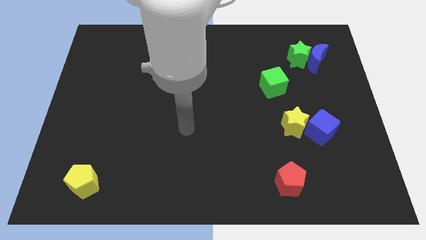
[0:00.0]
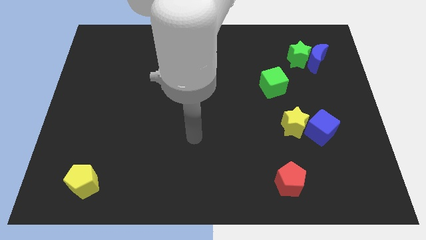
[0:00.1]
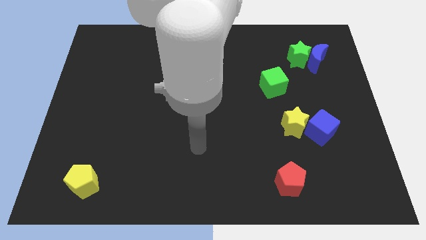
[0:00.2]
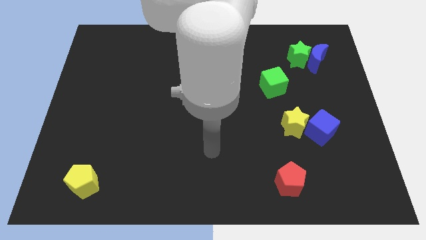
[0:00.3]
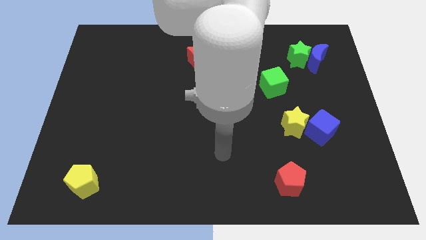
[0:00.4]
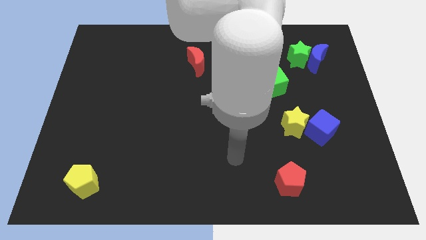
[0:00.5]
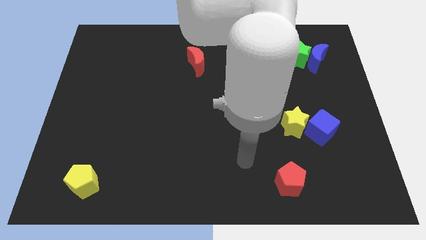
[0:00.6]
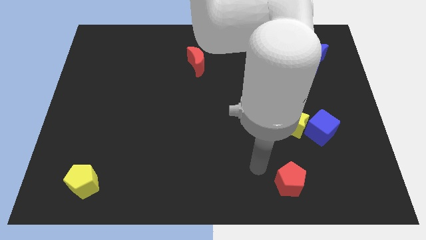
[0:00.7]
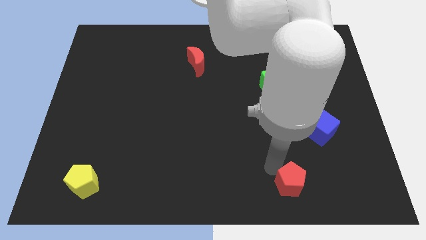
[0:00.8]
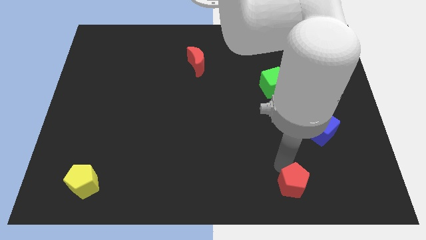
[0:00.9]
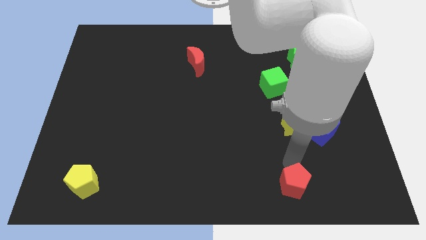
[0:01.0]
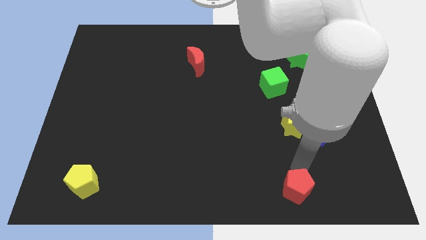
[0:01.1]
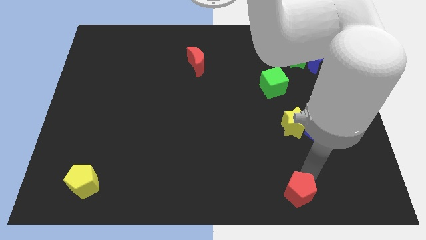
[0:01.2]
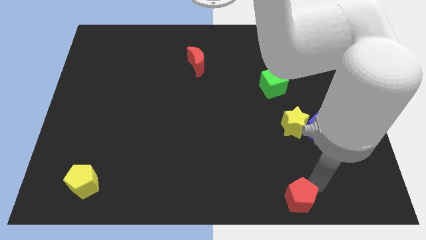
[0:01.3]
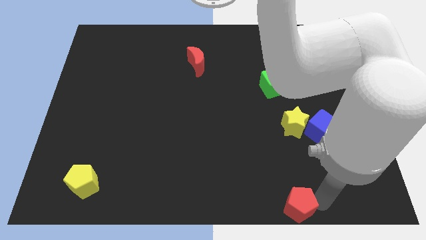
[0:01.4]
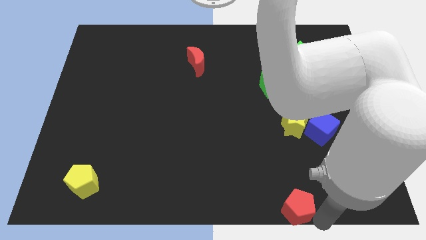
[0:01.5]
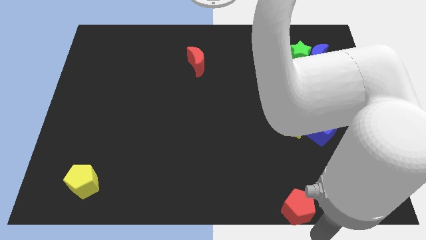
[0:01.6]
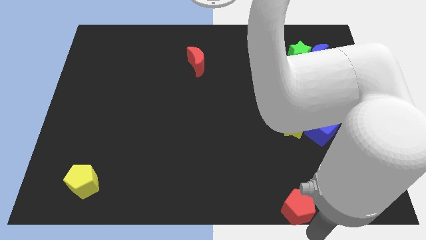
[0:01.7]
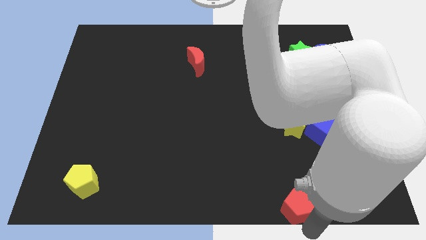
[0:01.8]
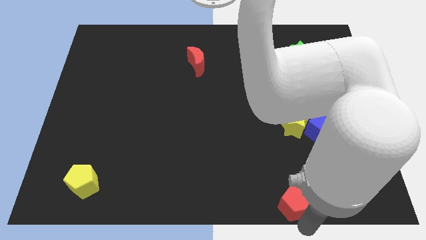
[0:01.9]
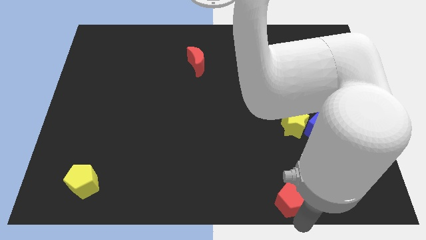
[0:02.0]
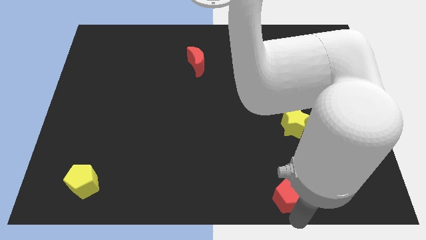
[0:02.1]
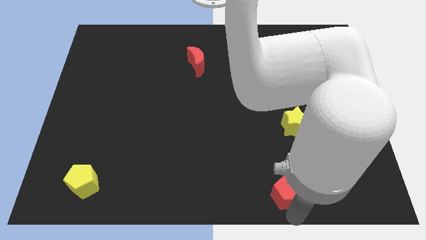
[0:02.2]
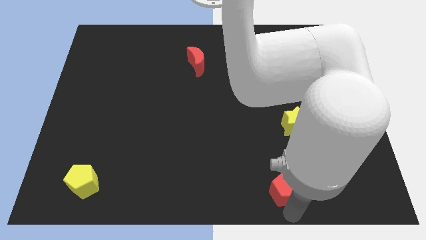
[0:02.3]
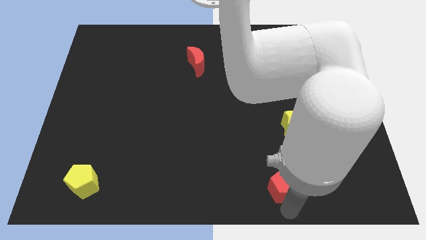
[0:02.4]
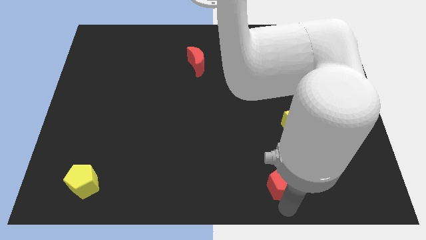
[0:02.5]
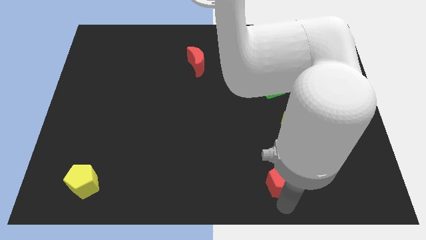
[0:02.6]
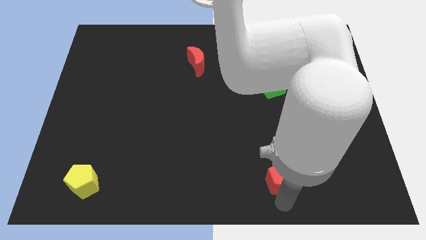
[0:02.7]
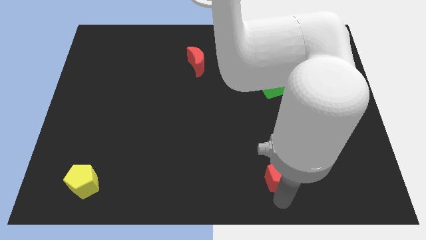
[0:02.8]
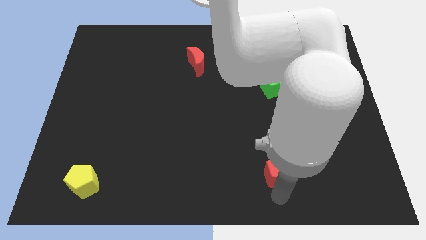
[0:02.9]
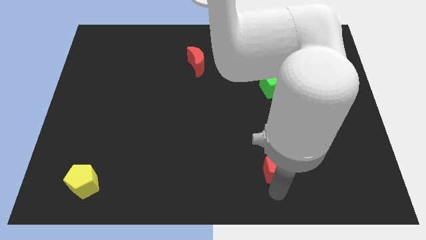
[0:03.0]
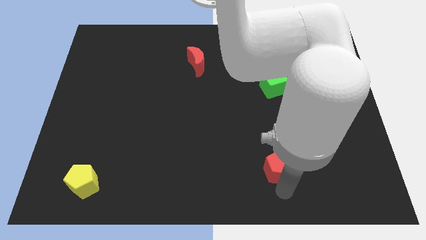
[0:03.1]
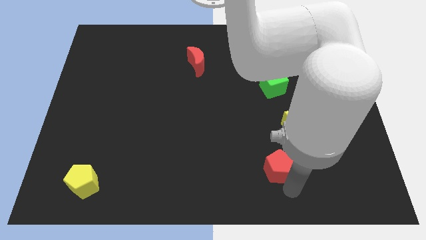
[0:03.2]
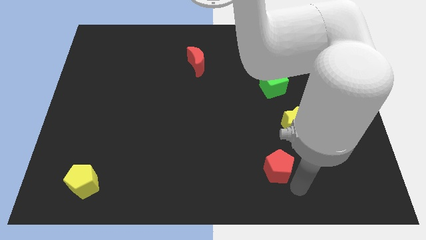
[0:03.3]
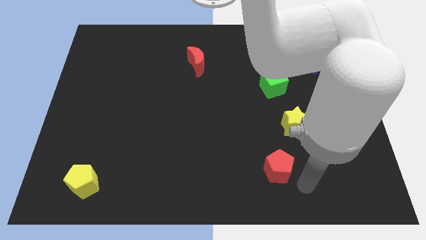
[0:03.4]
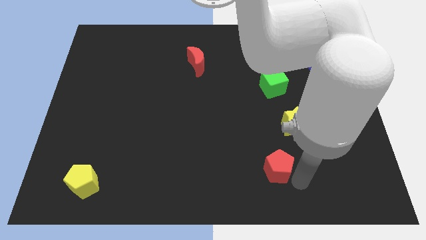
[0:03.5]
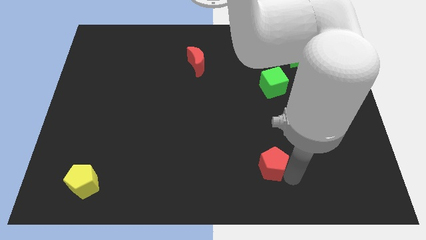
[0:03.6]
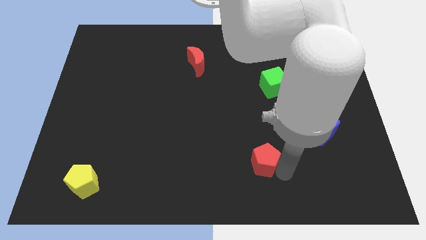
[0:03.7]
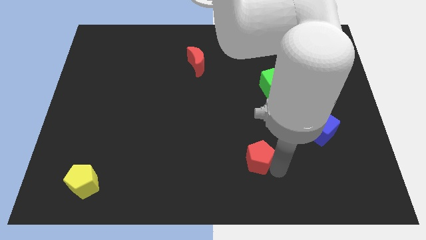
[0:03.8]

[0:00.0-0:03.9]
slide the red pentagon a bit upwards and then to the left

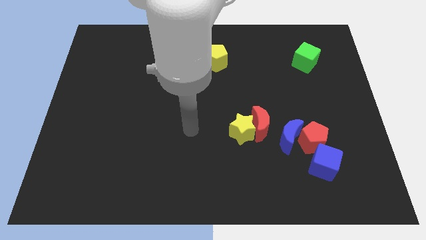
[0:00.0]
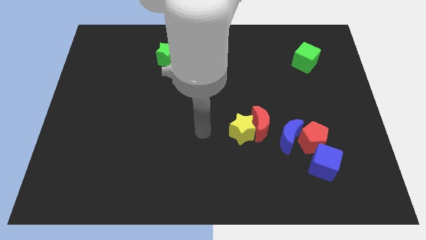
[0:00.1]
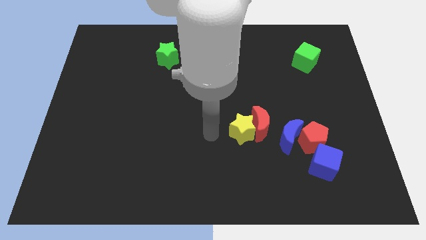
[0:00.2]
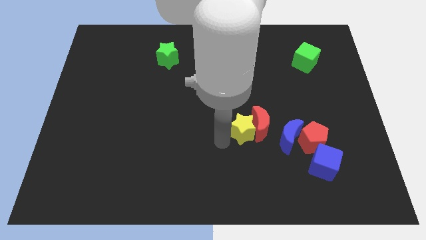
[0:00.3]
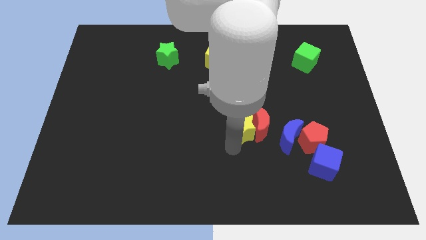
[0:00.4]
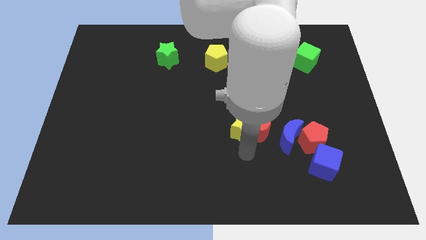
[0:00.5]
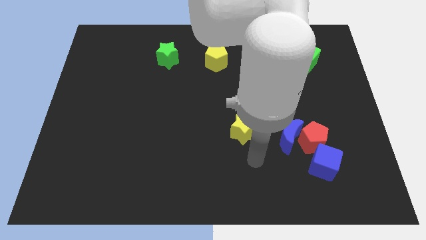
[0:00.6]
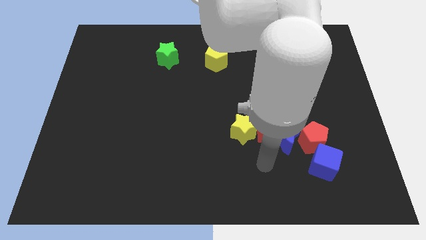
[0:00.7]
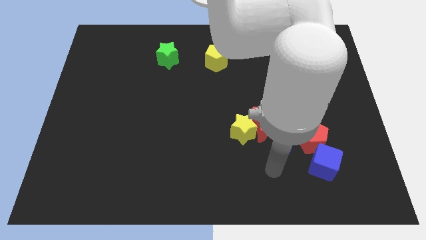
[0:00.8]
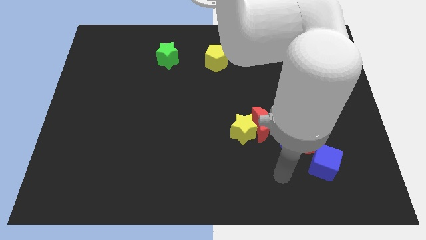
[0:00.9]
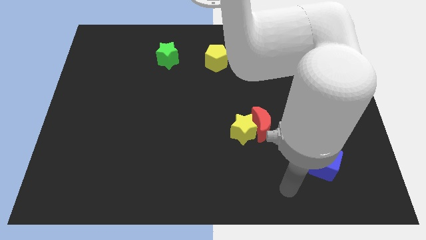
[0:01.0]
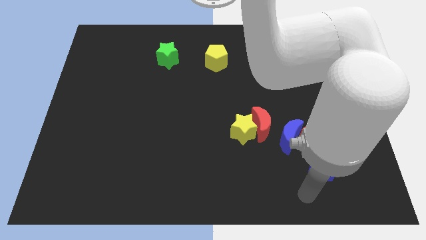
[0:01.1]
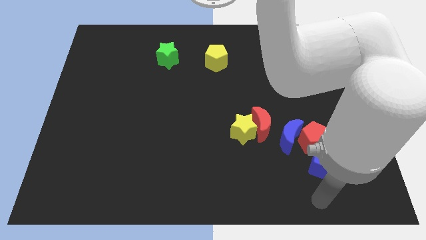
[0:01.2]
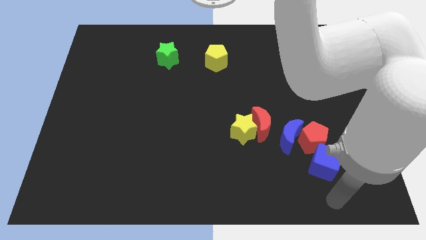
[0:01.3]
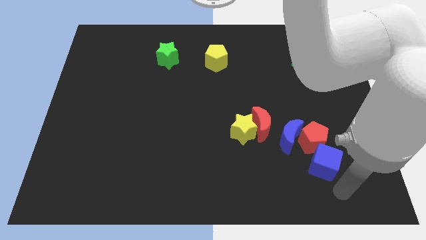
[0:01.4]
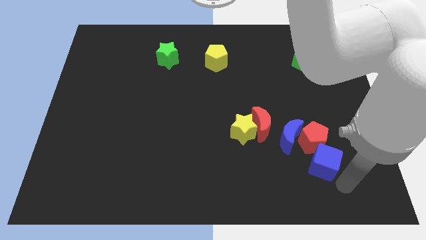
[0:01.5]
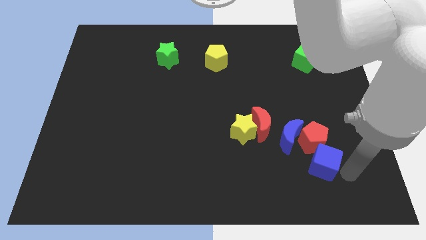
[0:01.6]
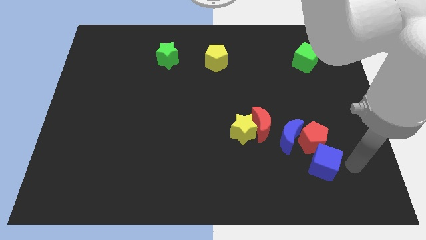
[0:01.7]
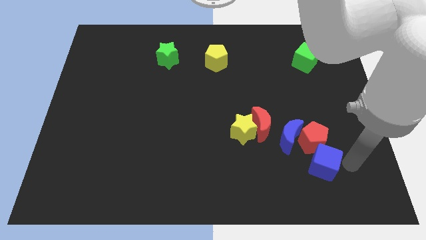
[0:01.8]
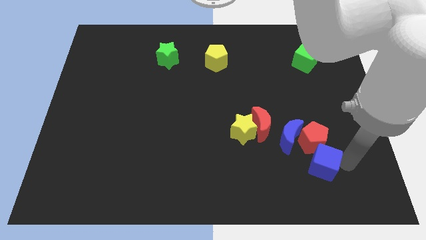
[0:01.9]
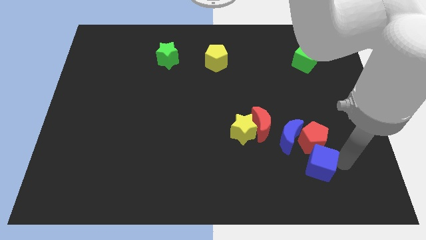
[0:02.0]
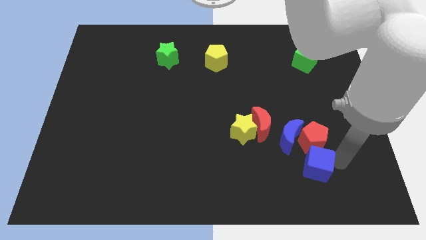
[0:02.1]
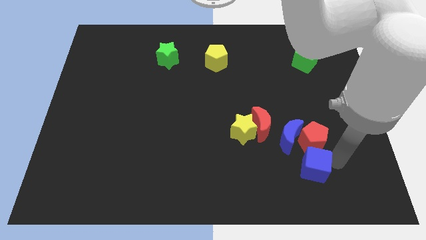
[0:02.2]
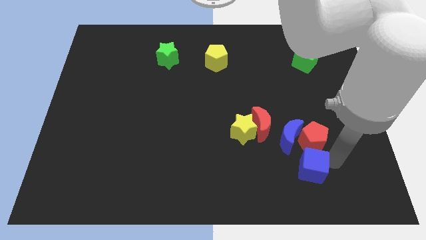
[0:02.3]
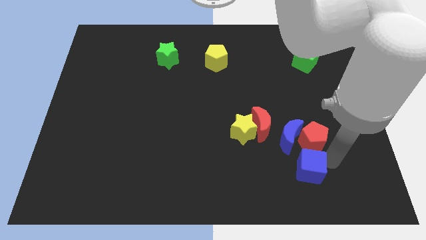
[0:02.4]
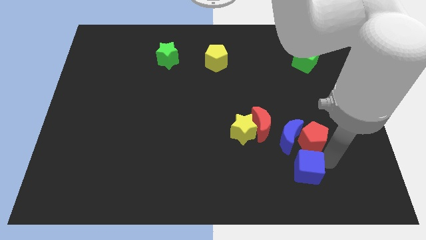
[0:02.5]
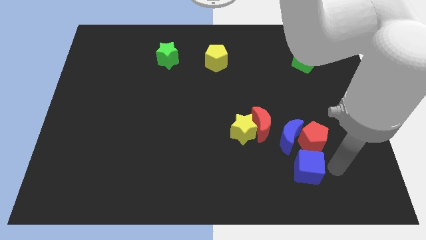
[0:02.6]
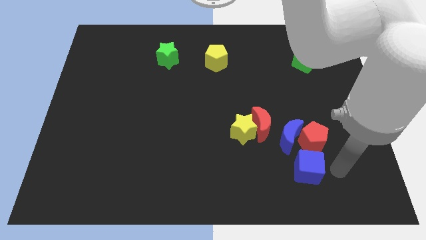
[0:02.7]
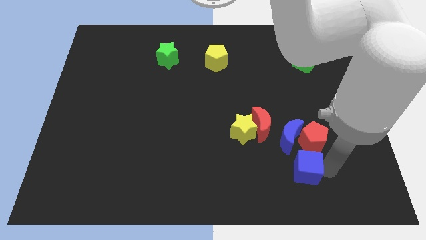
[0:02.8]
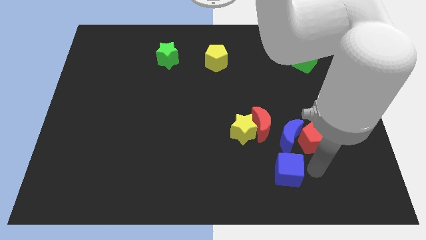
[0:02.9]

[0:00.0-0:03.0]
slide the blue cube a little bit to the left

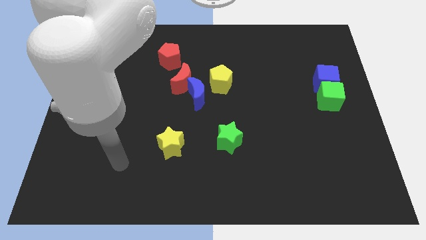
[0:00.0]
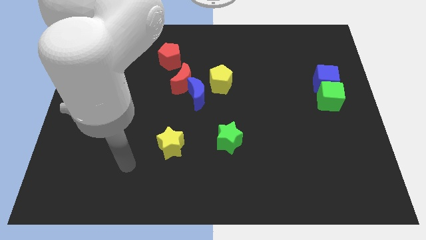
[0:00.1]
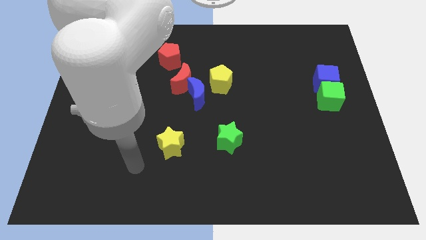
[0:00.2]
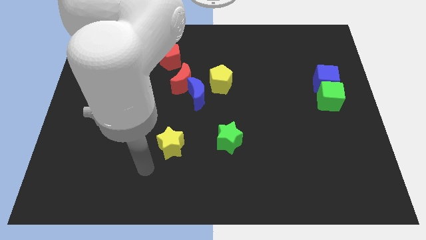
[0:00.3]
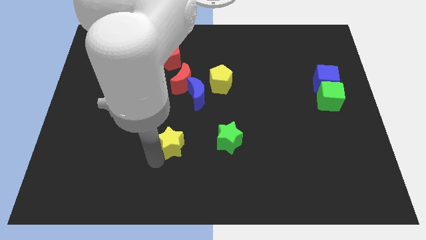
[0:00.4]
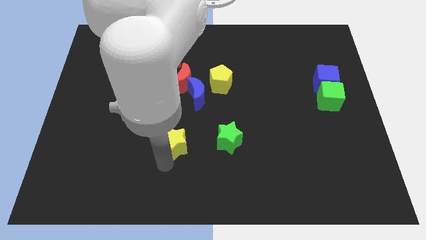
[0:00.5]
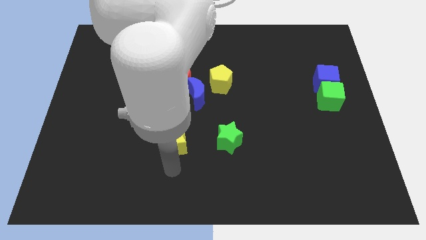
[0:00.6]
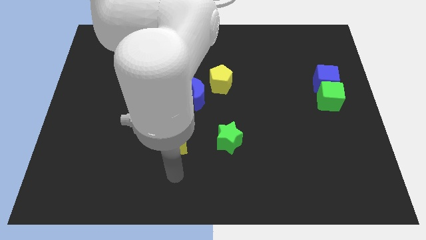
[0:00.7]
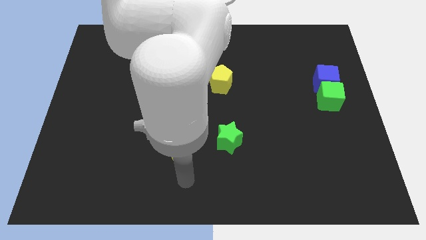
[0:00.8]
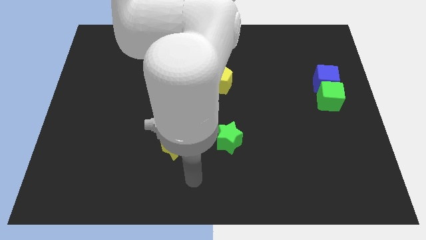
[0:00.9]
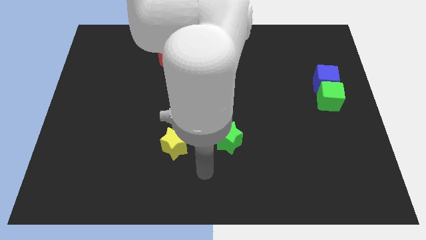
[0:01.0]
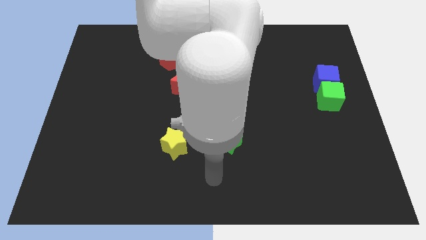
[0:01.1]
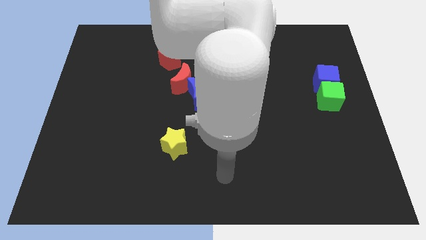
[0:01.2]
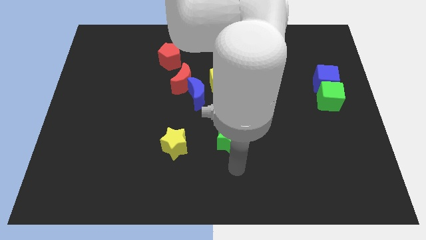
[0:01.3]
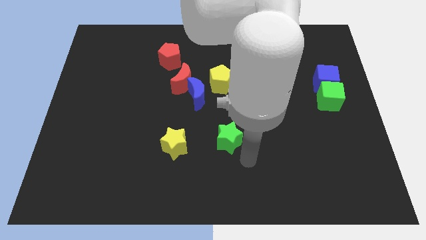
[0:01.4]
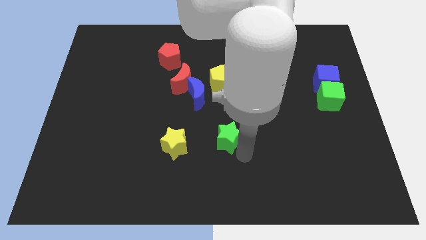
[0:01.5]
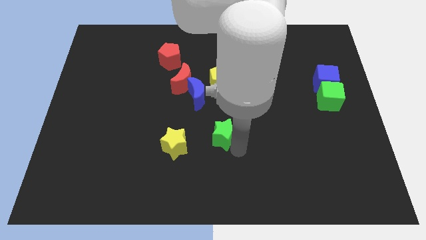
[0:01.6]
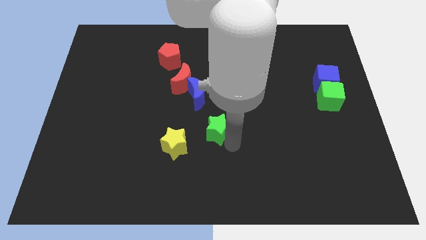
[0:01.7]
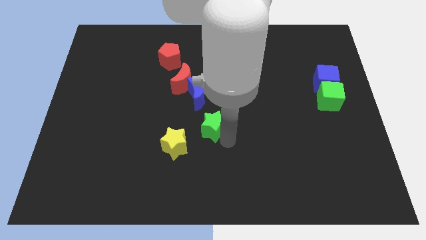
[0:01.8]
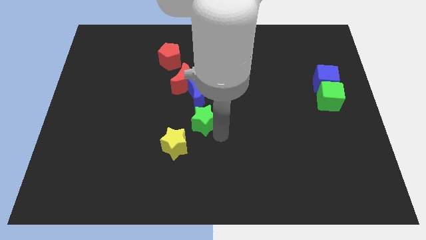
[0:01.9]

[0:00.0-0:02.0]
move the green star somewhat up and left diagonally
